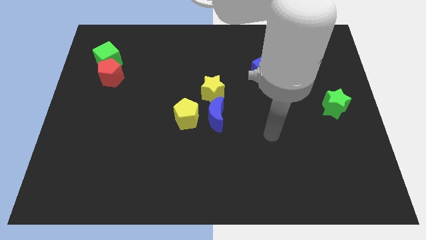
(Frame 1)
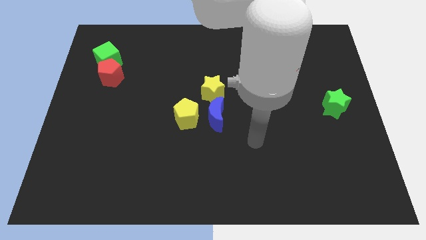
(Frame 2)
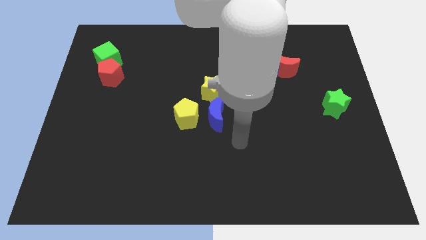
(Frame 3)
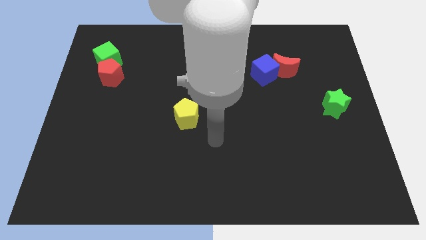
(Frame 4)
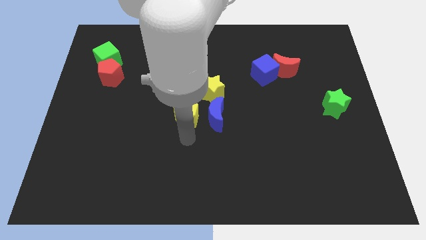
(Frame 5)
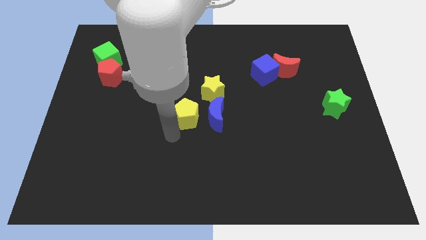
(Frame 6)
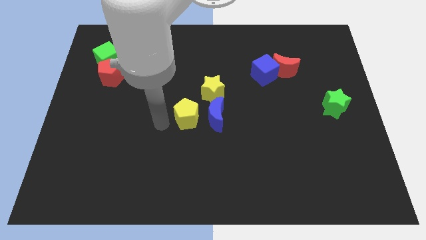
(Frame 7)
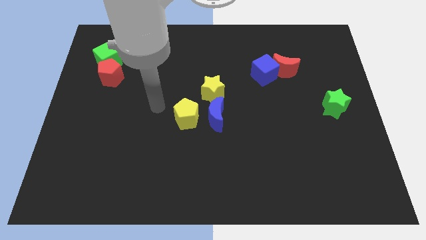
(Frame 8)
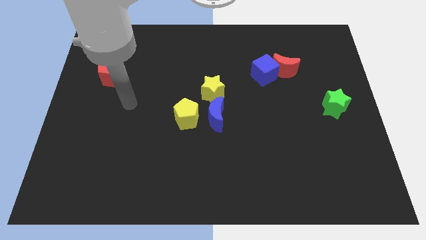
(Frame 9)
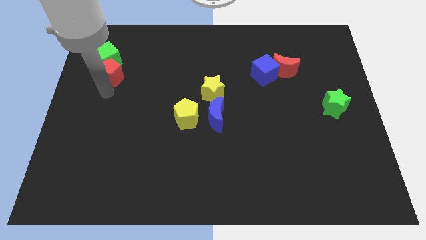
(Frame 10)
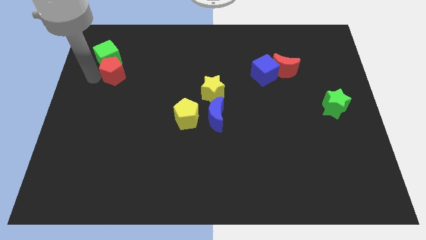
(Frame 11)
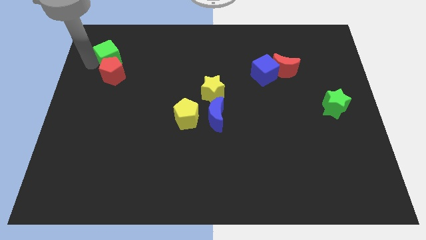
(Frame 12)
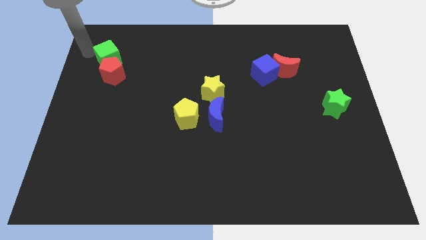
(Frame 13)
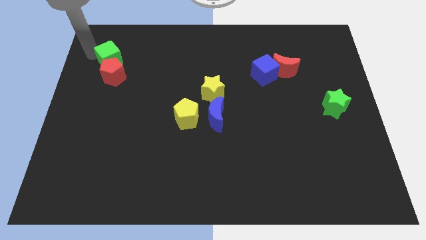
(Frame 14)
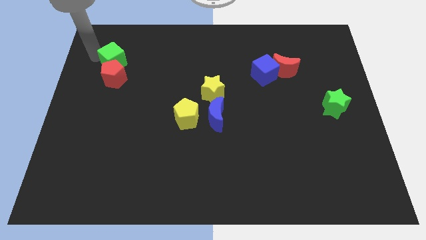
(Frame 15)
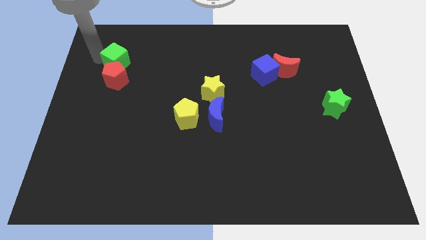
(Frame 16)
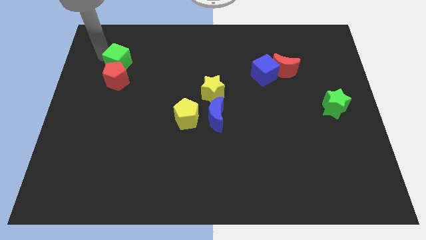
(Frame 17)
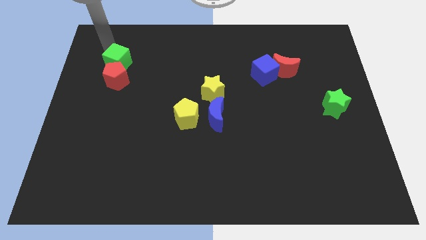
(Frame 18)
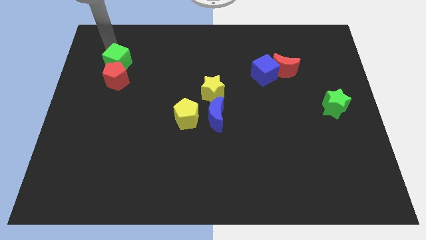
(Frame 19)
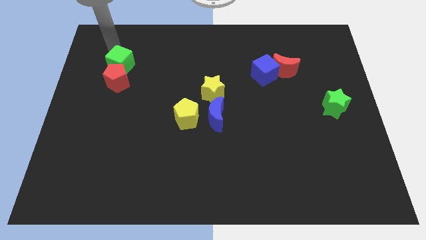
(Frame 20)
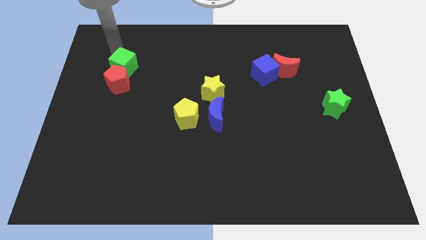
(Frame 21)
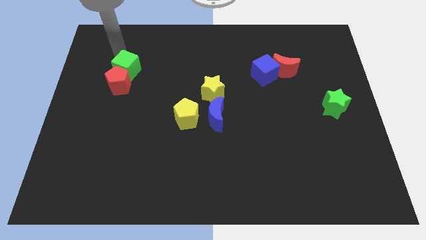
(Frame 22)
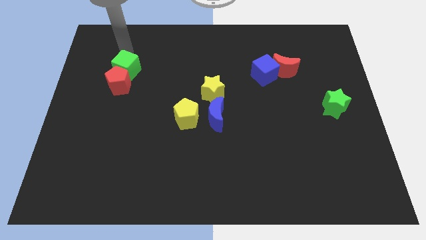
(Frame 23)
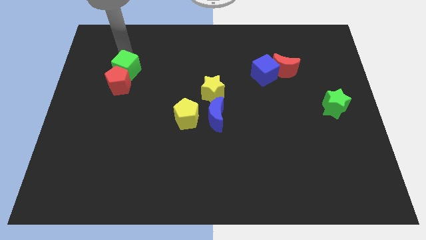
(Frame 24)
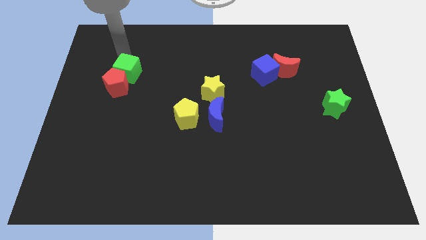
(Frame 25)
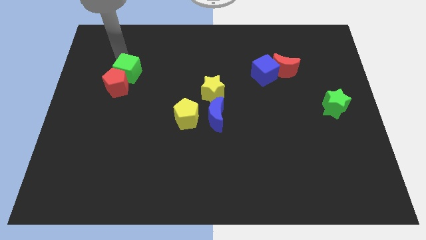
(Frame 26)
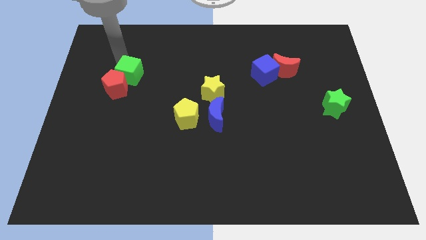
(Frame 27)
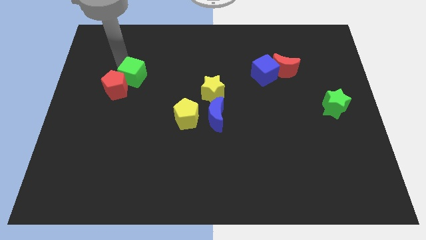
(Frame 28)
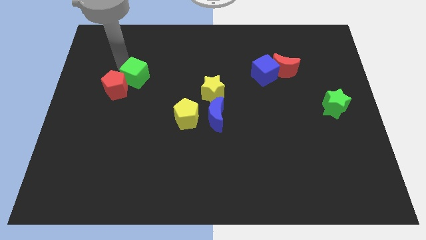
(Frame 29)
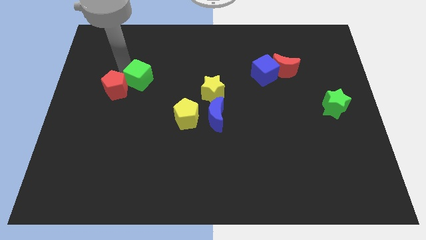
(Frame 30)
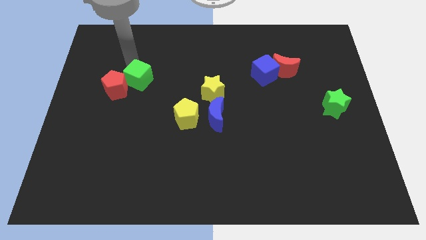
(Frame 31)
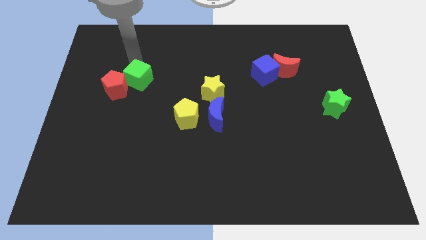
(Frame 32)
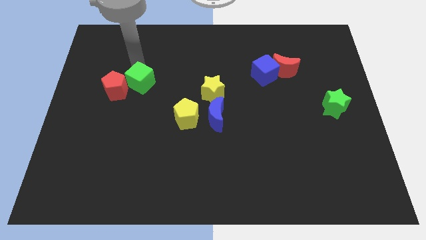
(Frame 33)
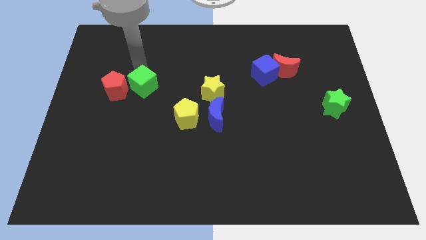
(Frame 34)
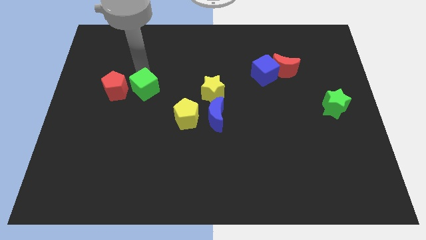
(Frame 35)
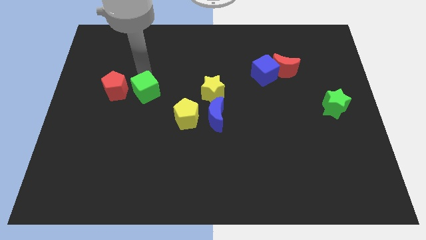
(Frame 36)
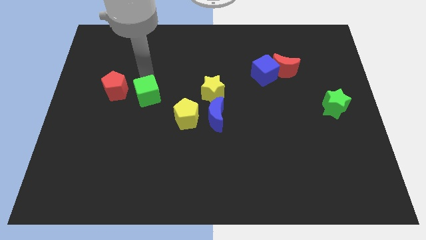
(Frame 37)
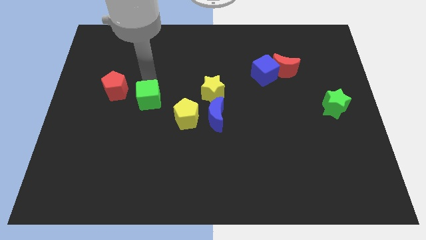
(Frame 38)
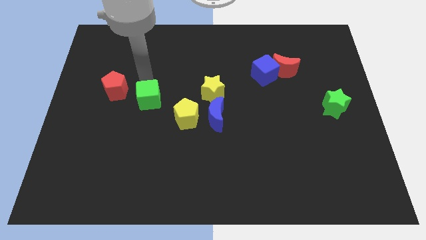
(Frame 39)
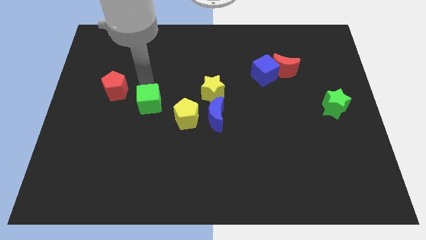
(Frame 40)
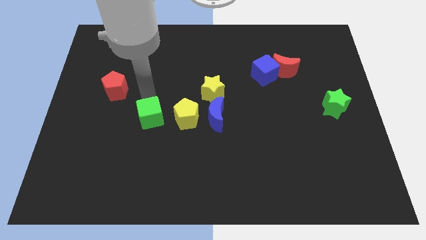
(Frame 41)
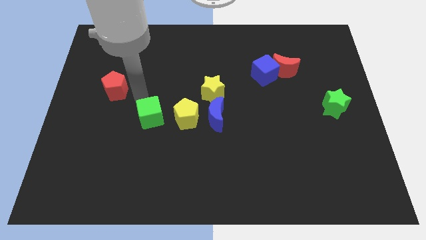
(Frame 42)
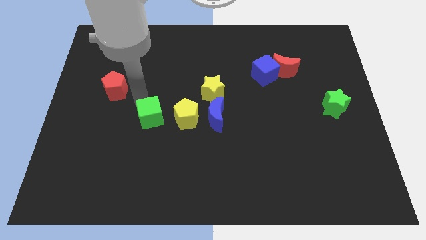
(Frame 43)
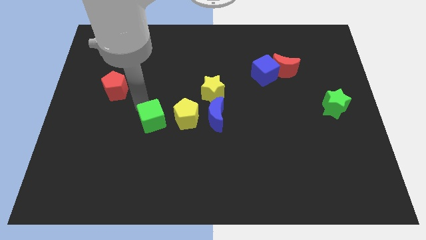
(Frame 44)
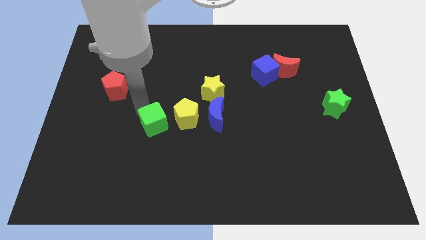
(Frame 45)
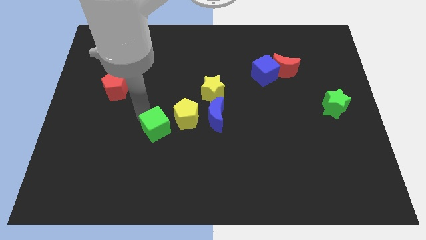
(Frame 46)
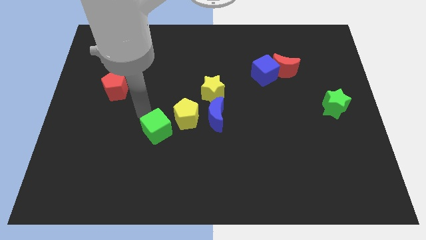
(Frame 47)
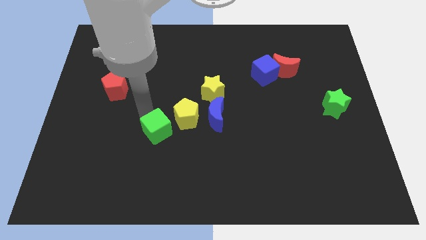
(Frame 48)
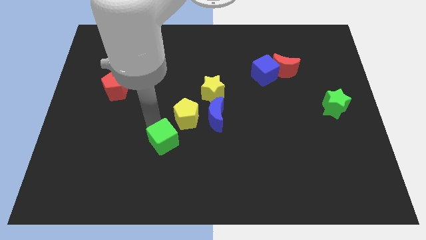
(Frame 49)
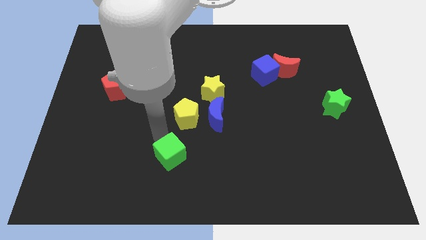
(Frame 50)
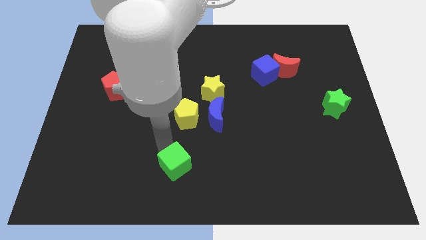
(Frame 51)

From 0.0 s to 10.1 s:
put the green cube to the bottom side

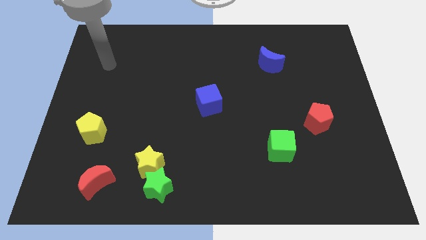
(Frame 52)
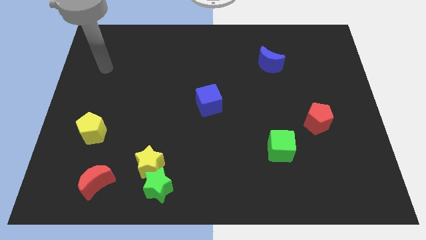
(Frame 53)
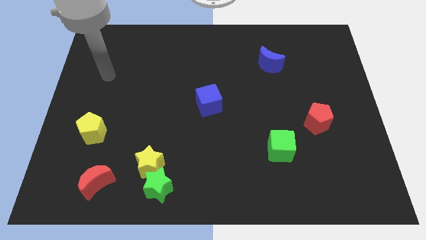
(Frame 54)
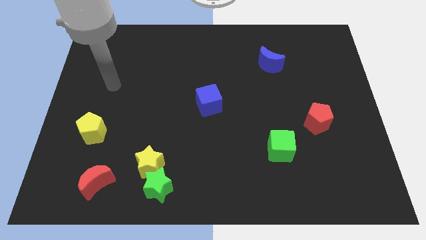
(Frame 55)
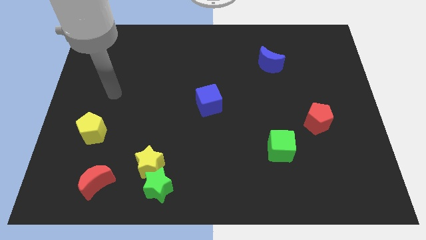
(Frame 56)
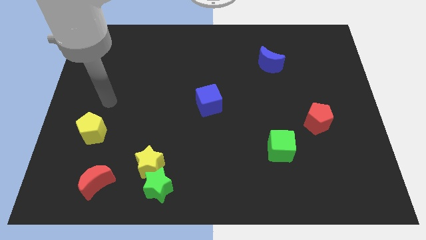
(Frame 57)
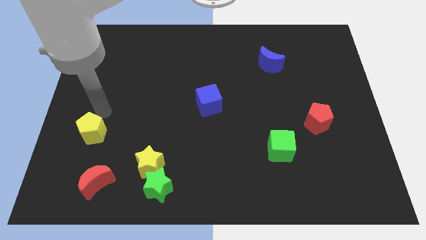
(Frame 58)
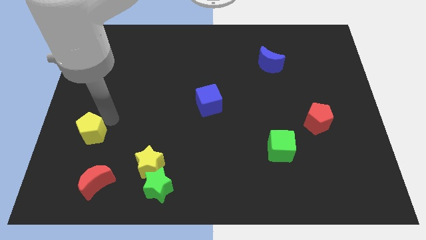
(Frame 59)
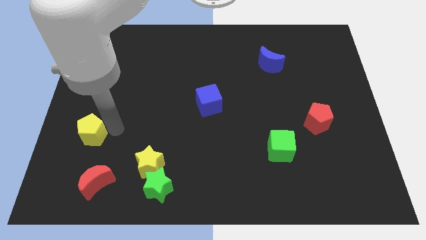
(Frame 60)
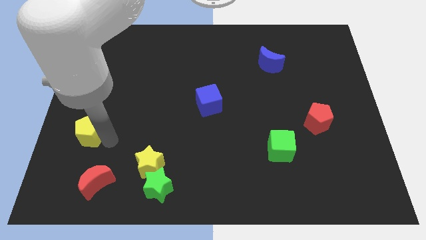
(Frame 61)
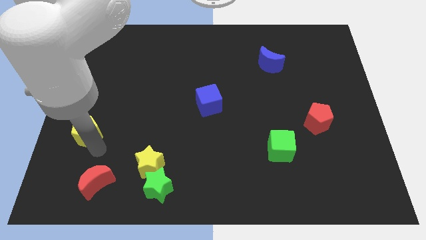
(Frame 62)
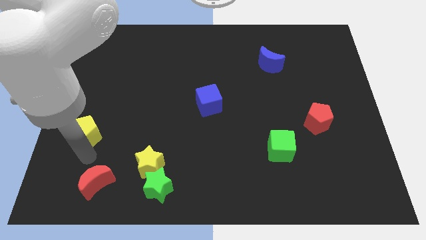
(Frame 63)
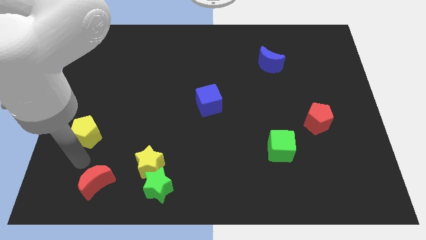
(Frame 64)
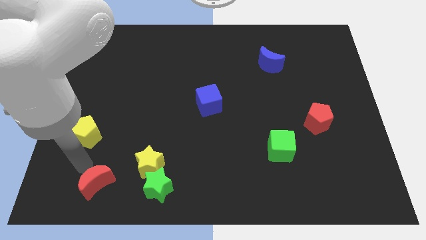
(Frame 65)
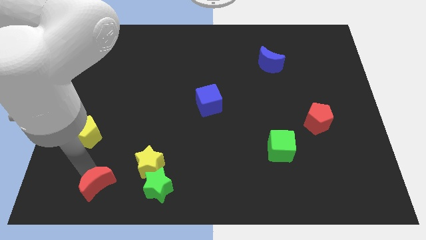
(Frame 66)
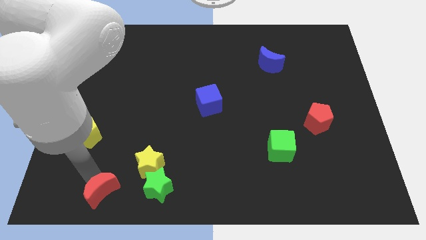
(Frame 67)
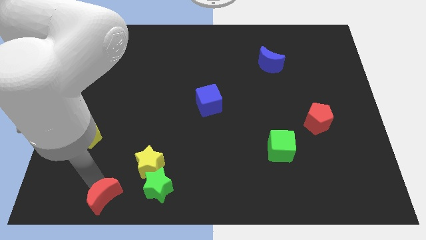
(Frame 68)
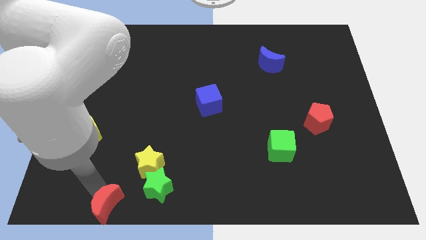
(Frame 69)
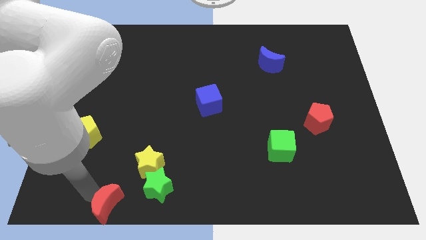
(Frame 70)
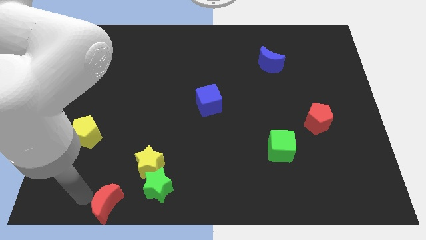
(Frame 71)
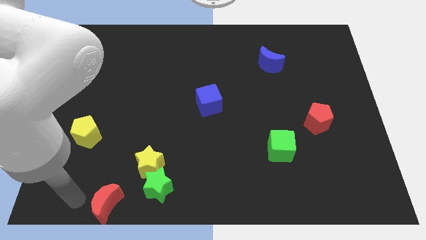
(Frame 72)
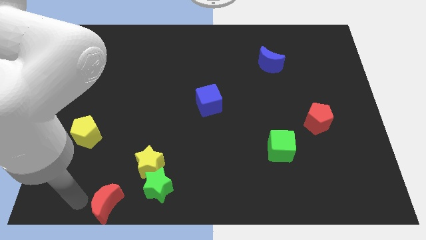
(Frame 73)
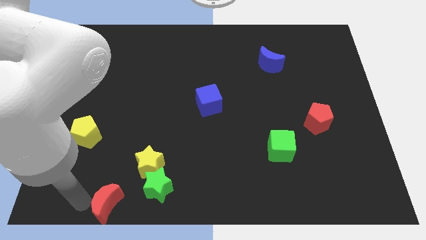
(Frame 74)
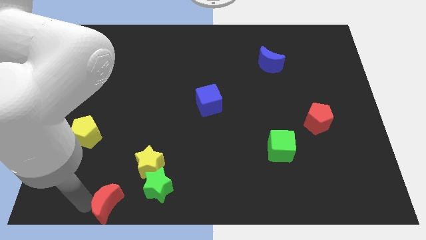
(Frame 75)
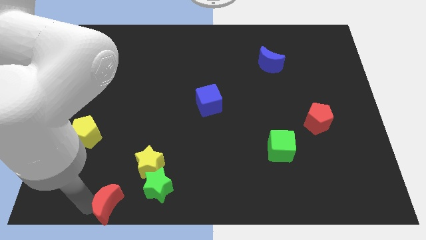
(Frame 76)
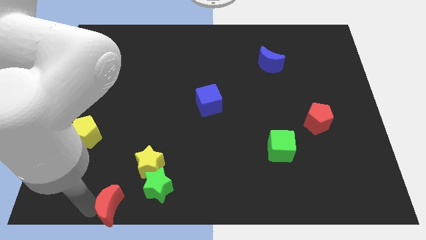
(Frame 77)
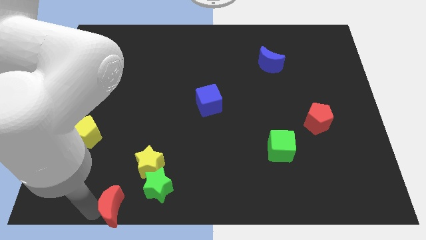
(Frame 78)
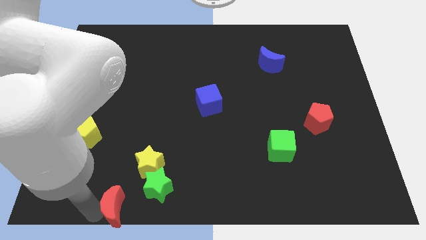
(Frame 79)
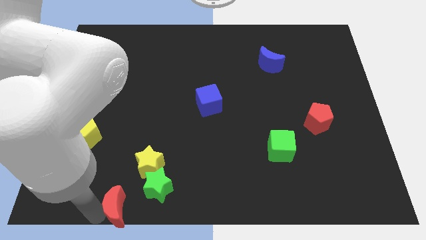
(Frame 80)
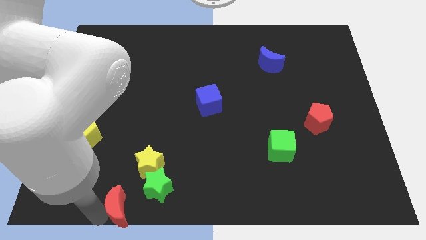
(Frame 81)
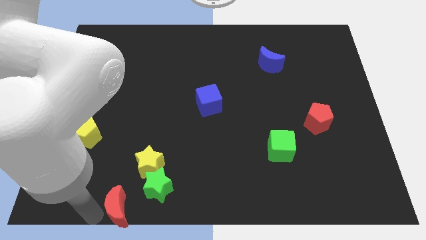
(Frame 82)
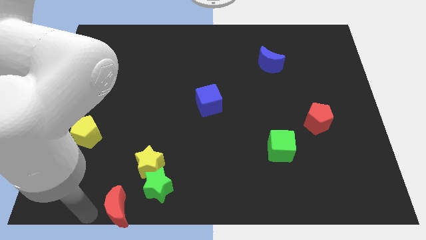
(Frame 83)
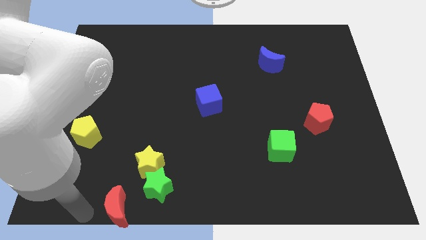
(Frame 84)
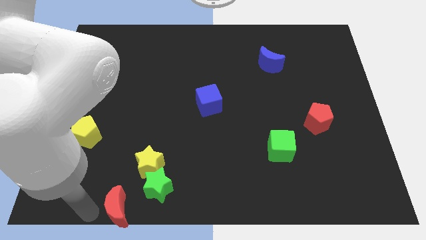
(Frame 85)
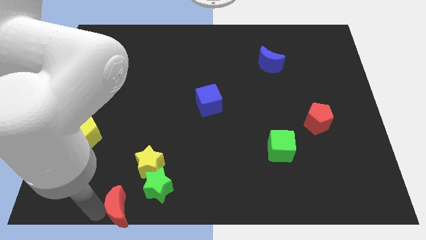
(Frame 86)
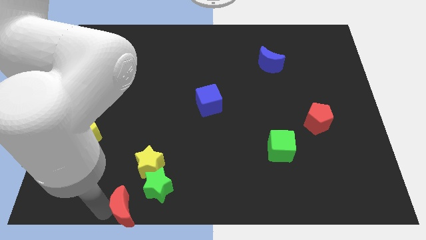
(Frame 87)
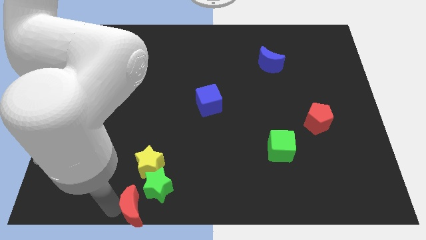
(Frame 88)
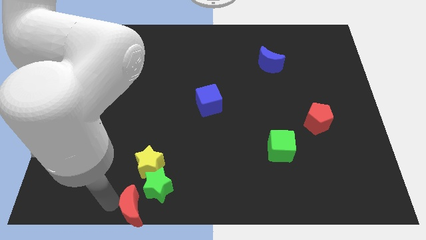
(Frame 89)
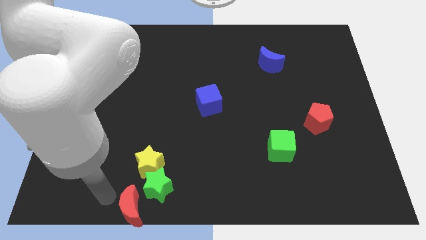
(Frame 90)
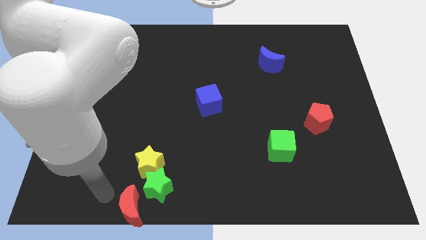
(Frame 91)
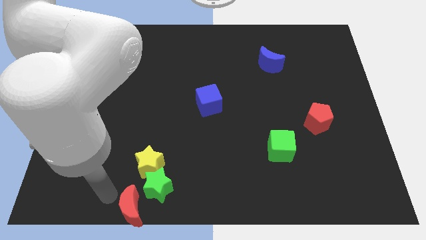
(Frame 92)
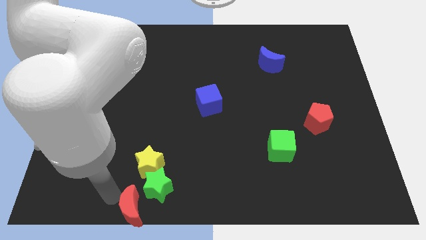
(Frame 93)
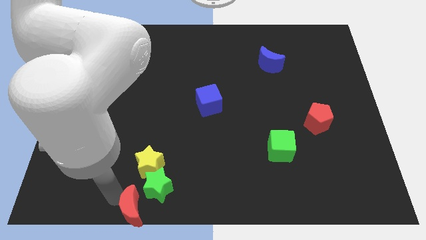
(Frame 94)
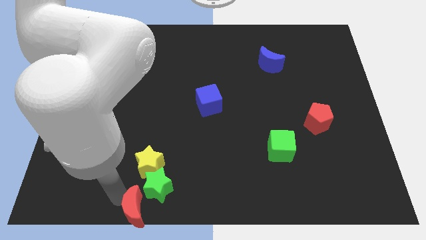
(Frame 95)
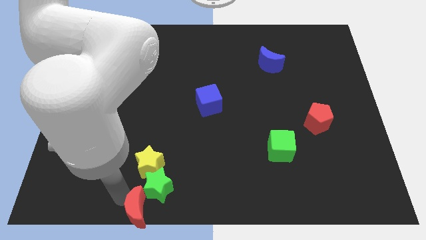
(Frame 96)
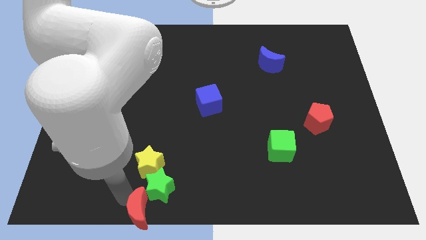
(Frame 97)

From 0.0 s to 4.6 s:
slide the red moon to the bottom side
